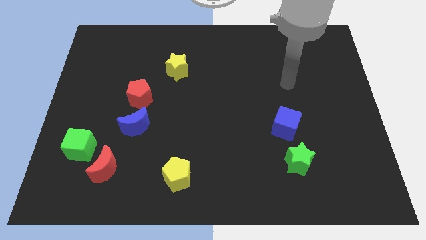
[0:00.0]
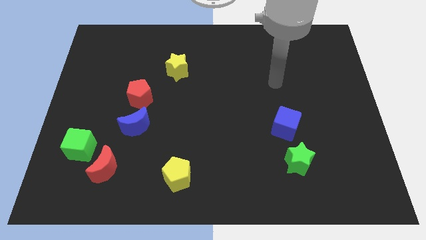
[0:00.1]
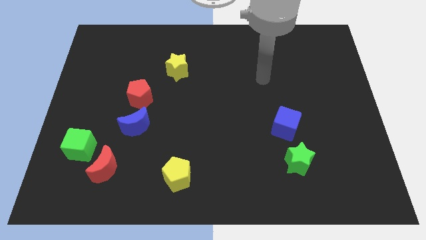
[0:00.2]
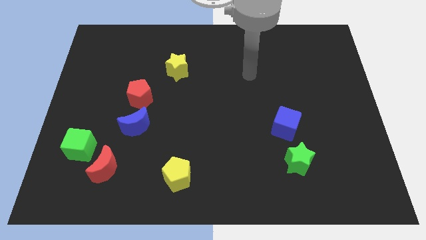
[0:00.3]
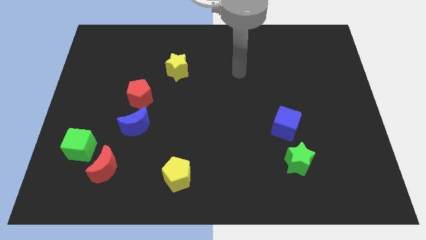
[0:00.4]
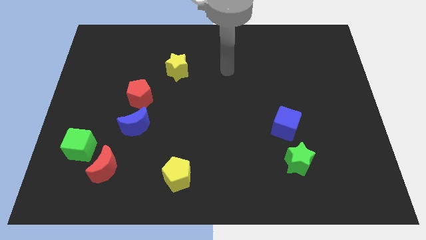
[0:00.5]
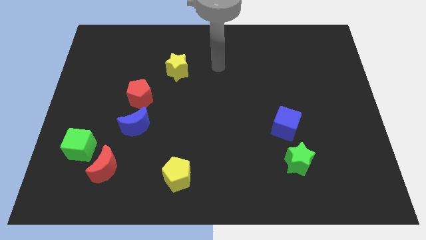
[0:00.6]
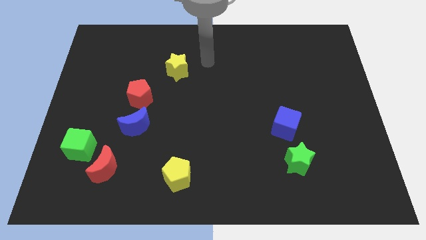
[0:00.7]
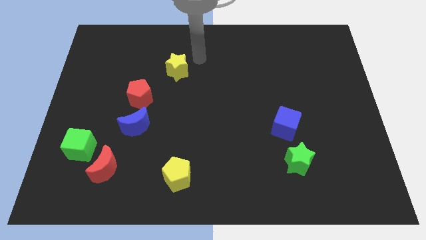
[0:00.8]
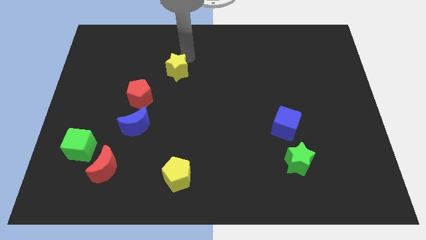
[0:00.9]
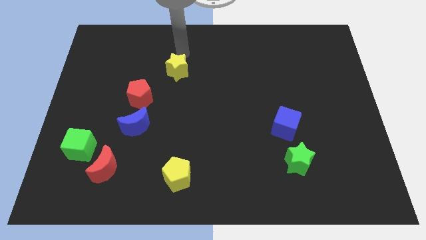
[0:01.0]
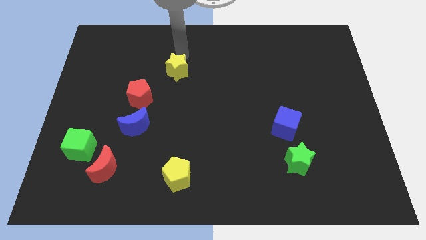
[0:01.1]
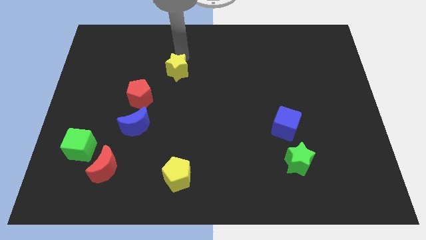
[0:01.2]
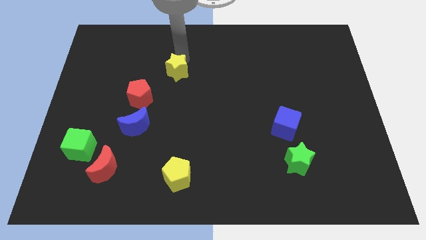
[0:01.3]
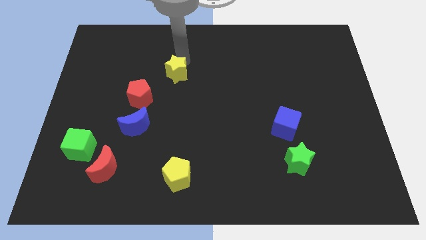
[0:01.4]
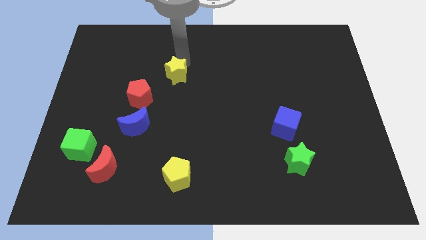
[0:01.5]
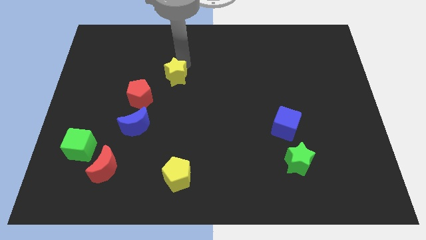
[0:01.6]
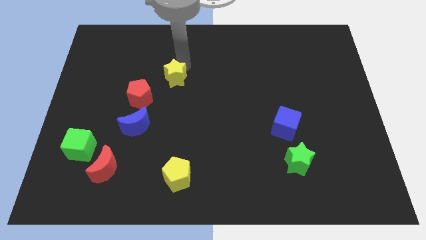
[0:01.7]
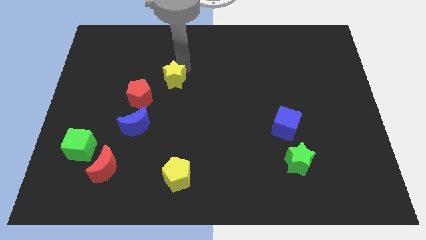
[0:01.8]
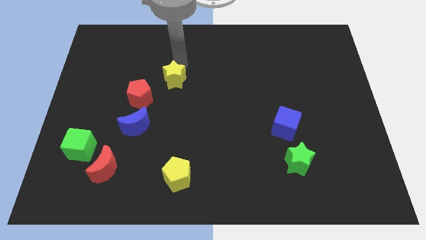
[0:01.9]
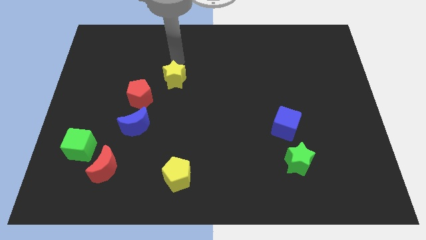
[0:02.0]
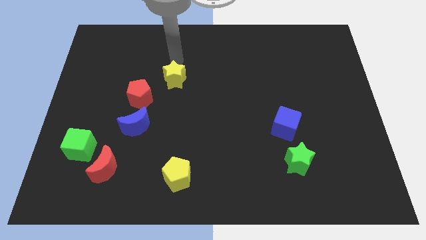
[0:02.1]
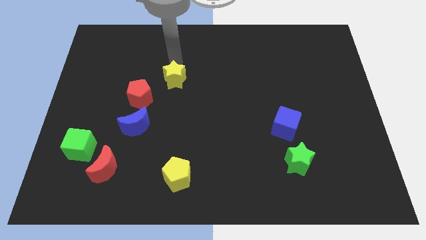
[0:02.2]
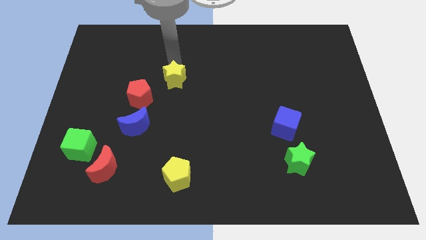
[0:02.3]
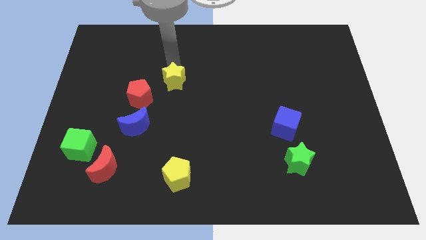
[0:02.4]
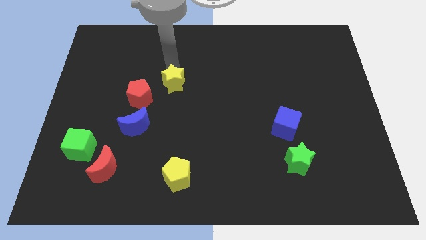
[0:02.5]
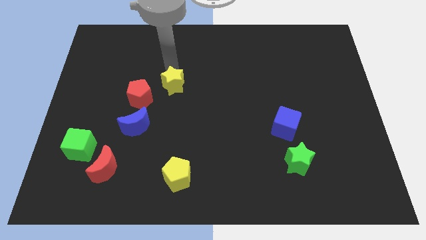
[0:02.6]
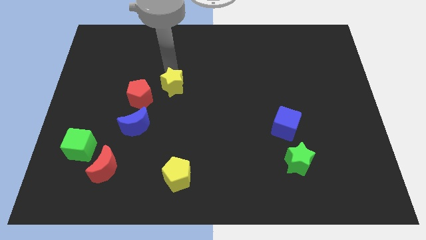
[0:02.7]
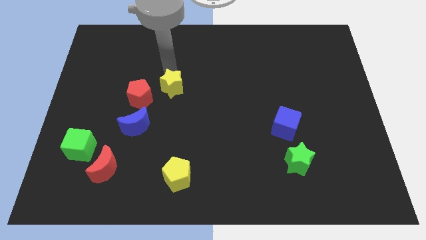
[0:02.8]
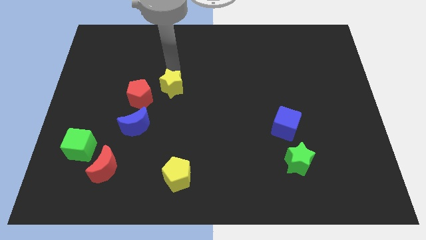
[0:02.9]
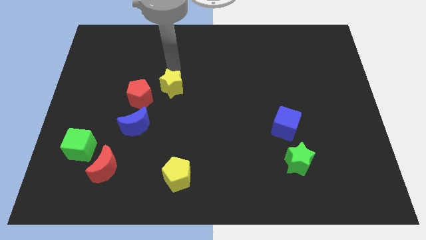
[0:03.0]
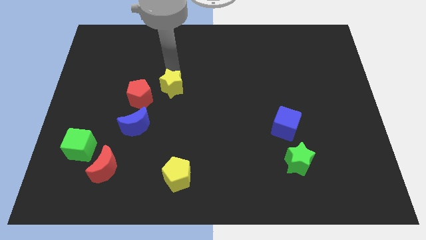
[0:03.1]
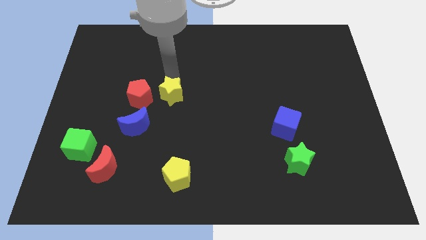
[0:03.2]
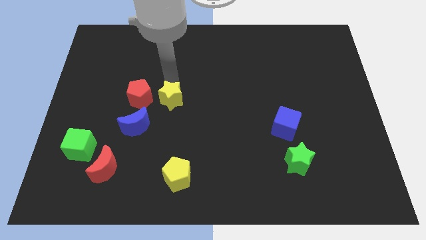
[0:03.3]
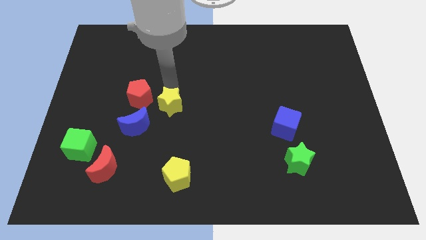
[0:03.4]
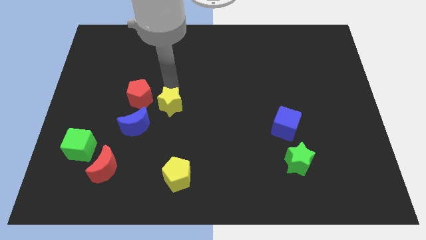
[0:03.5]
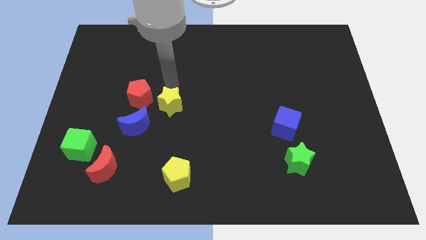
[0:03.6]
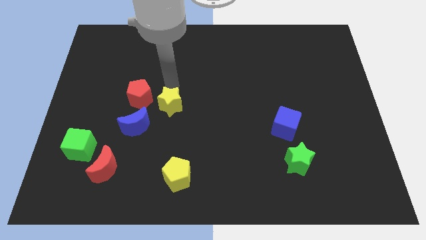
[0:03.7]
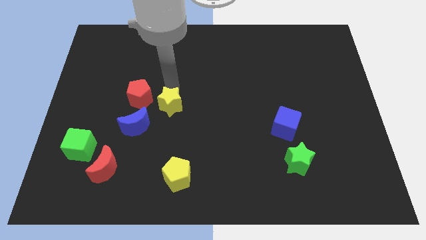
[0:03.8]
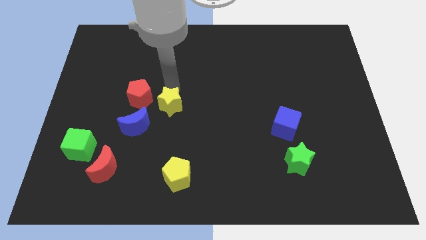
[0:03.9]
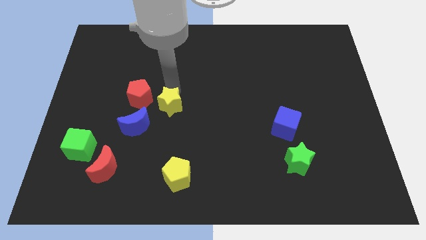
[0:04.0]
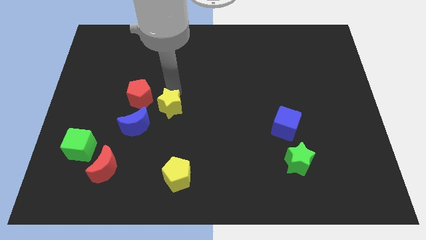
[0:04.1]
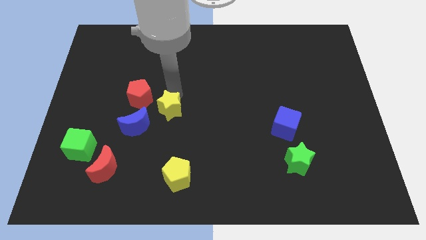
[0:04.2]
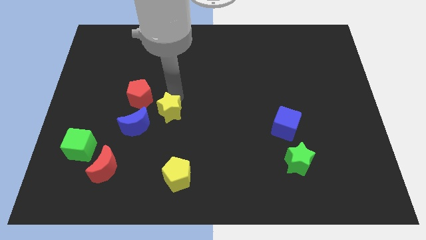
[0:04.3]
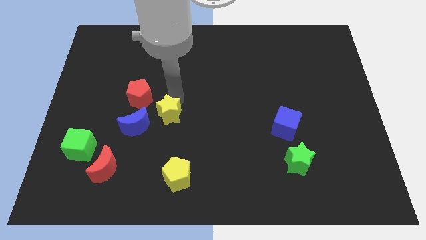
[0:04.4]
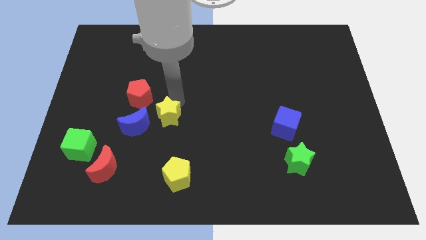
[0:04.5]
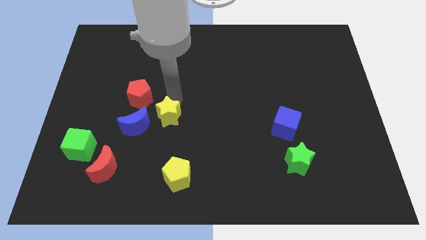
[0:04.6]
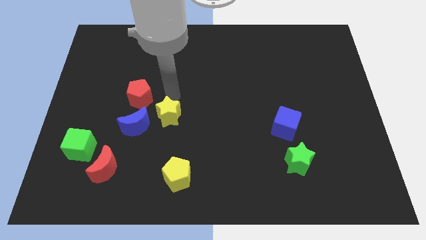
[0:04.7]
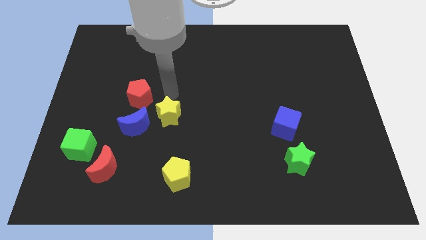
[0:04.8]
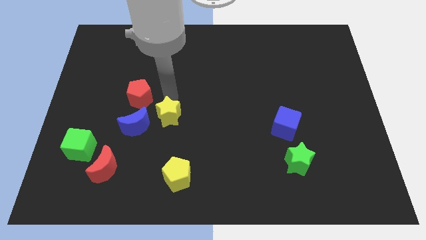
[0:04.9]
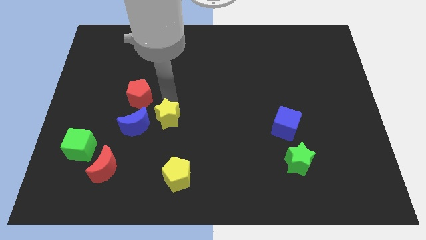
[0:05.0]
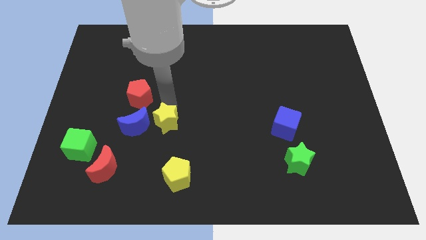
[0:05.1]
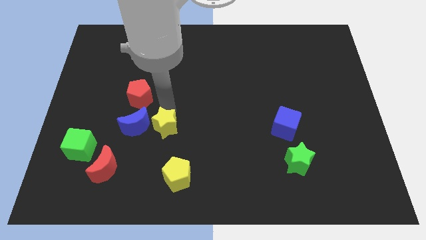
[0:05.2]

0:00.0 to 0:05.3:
put the yellow star to the bottom right side of the blue moon

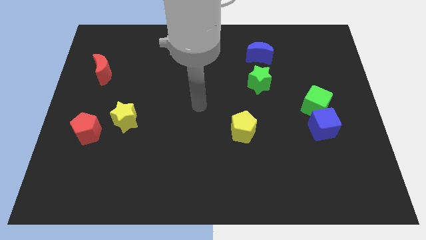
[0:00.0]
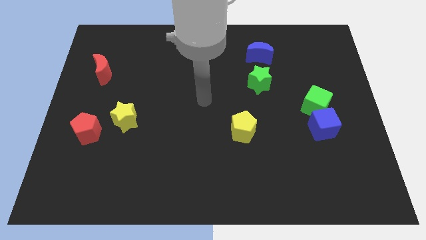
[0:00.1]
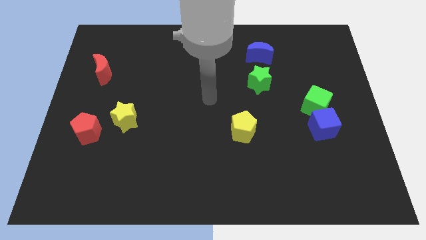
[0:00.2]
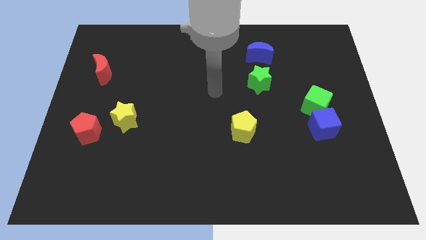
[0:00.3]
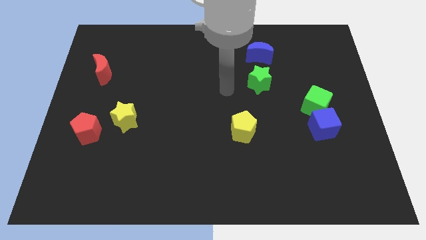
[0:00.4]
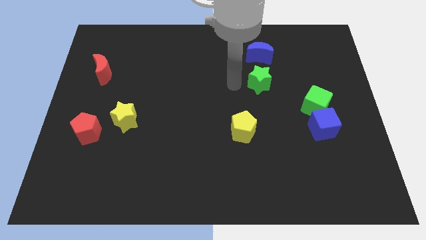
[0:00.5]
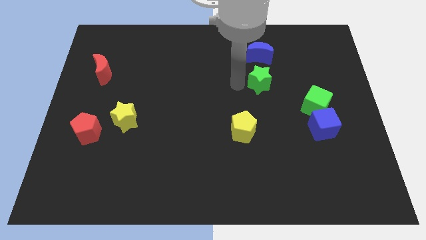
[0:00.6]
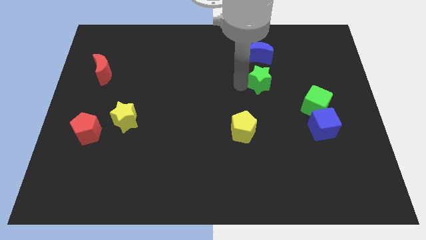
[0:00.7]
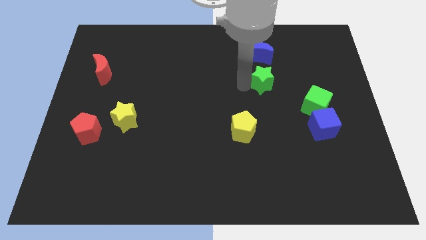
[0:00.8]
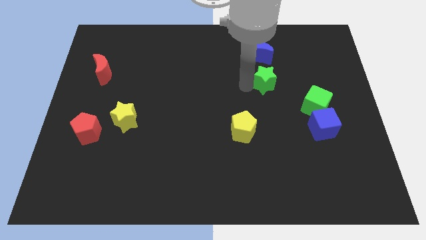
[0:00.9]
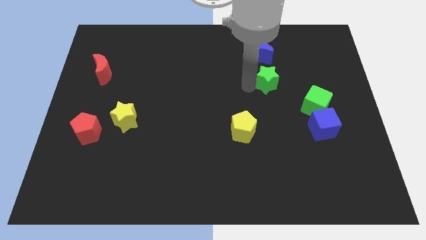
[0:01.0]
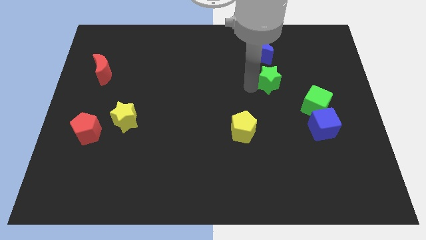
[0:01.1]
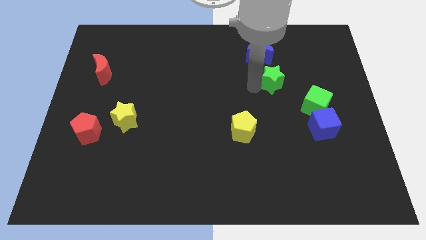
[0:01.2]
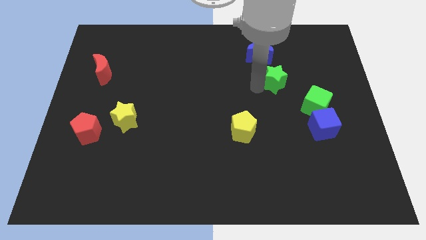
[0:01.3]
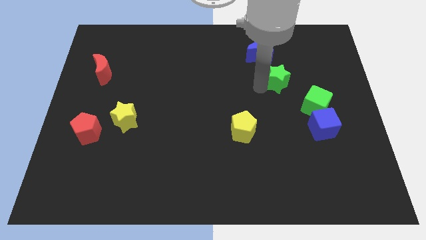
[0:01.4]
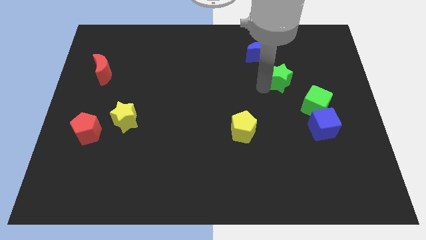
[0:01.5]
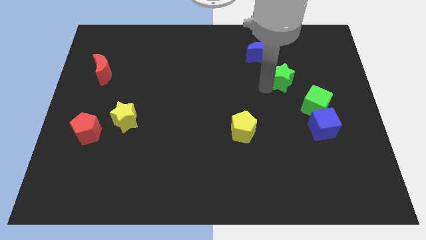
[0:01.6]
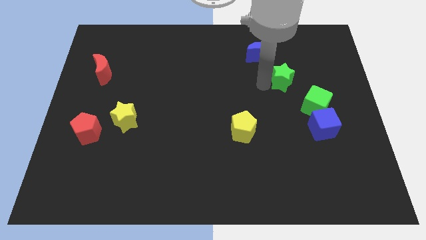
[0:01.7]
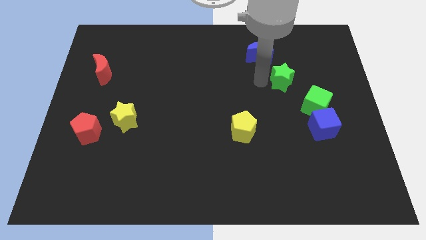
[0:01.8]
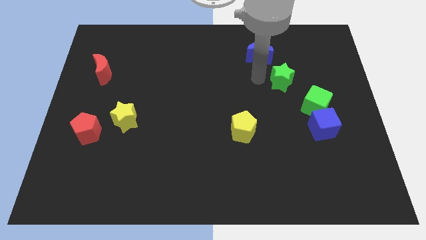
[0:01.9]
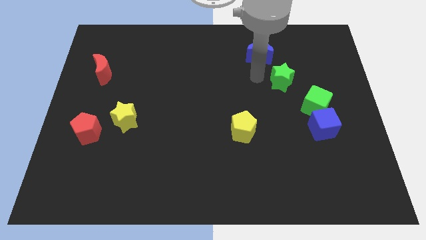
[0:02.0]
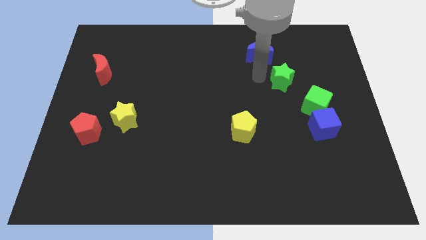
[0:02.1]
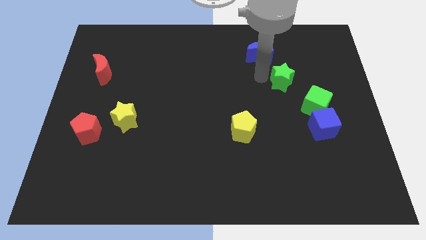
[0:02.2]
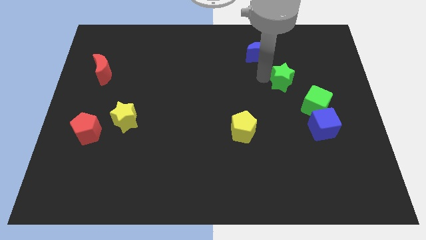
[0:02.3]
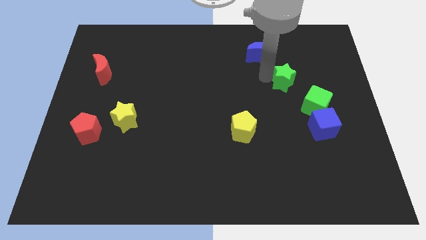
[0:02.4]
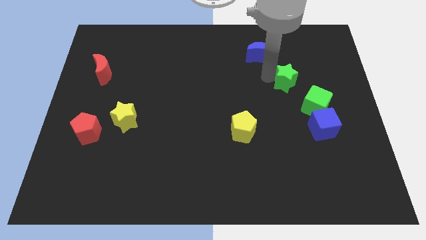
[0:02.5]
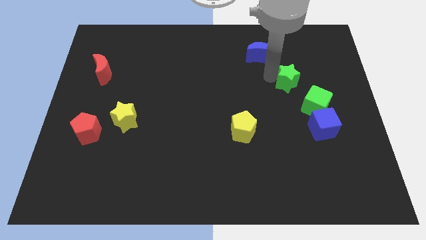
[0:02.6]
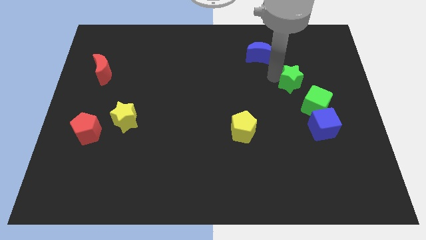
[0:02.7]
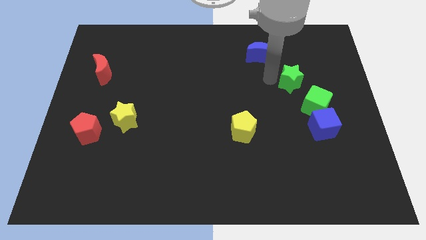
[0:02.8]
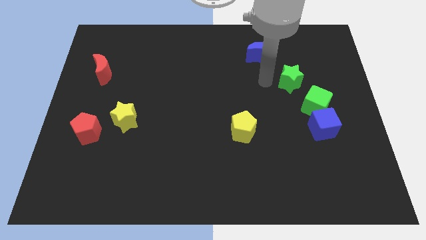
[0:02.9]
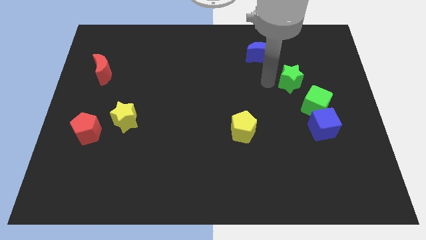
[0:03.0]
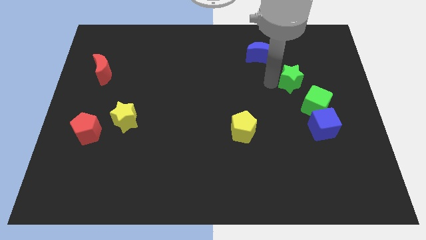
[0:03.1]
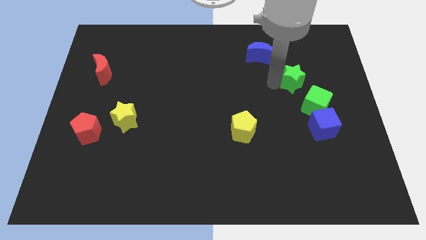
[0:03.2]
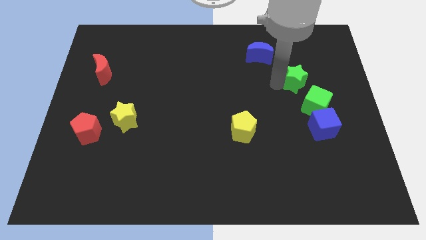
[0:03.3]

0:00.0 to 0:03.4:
put the green star to the top side of the blue cube
